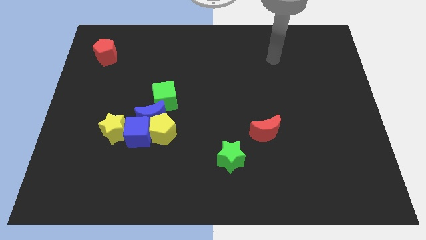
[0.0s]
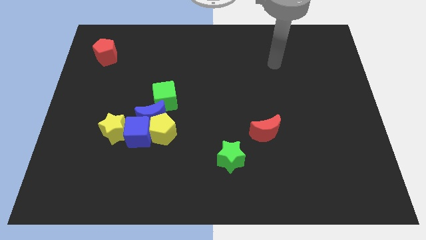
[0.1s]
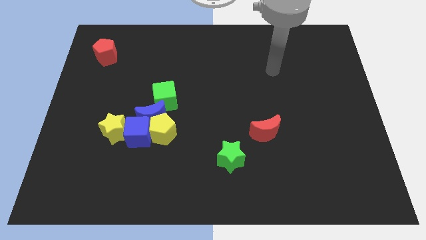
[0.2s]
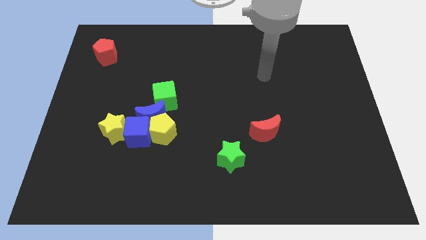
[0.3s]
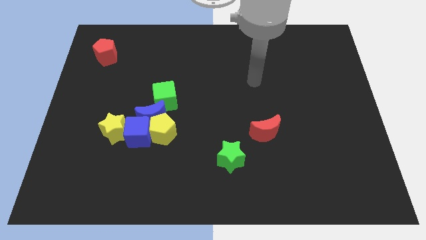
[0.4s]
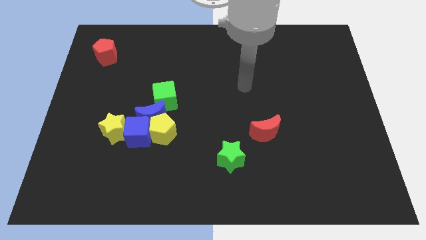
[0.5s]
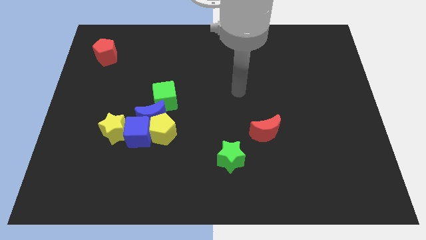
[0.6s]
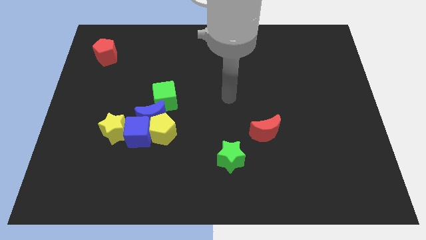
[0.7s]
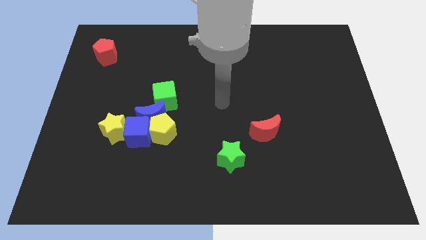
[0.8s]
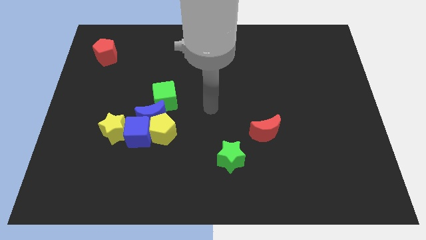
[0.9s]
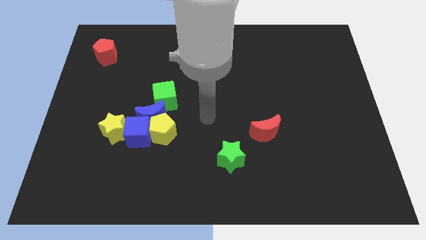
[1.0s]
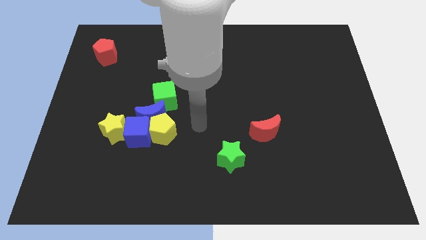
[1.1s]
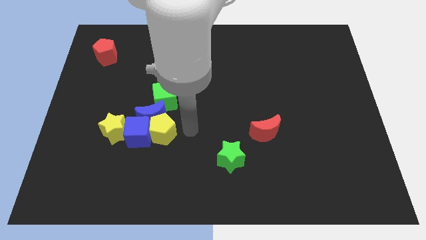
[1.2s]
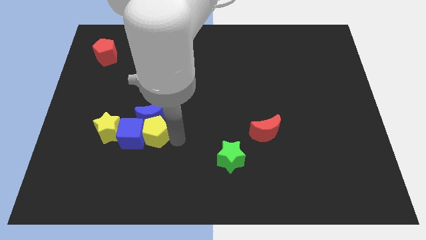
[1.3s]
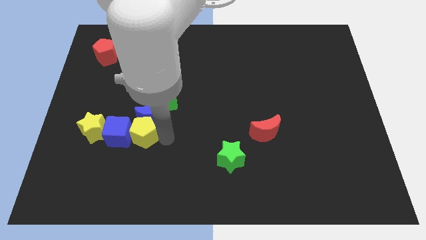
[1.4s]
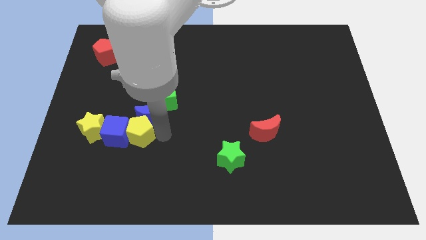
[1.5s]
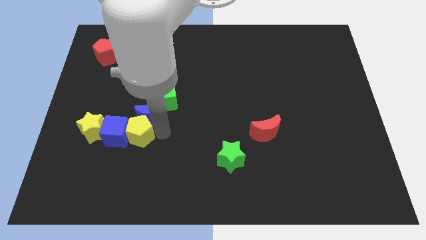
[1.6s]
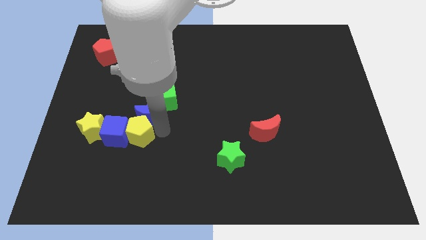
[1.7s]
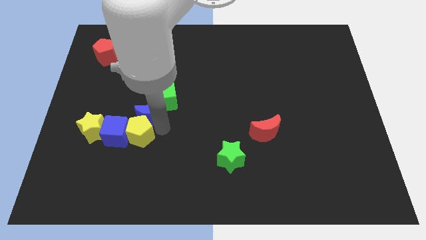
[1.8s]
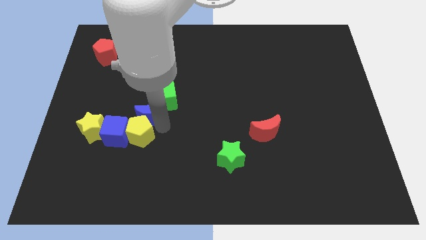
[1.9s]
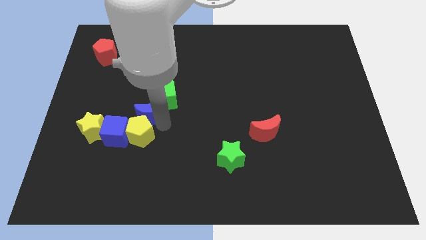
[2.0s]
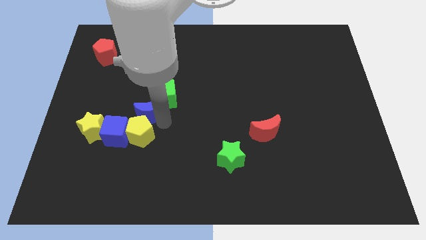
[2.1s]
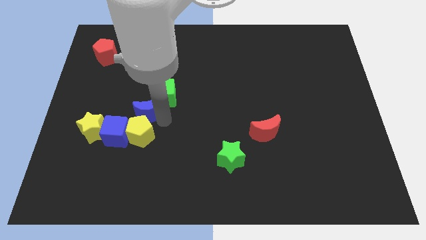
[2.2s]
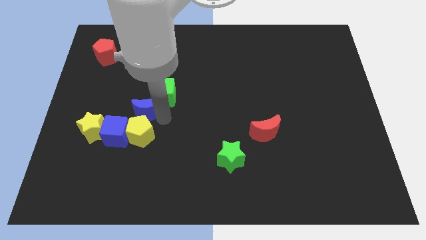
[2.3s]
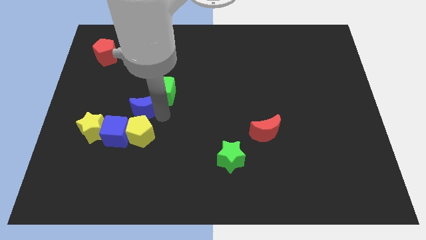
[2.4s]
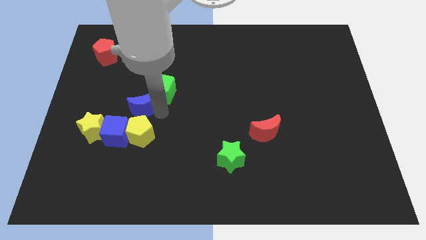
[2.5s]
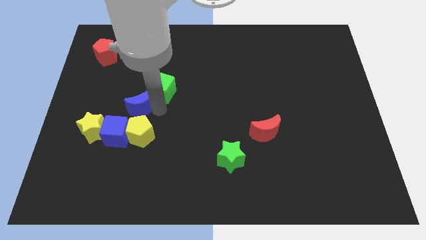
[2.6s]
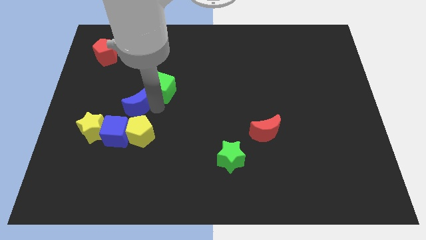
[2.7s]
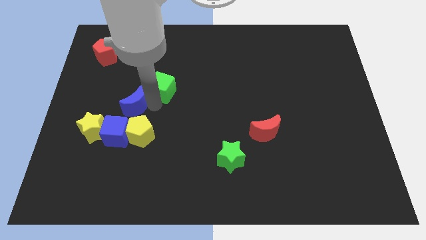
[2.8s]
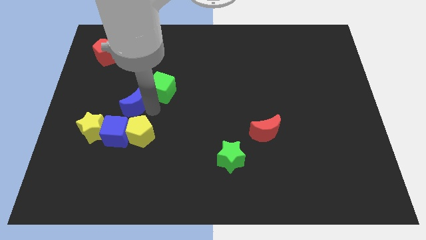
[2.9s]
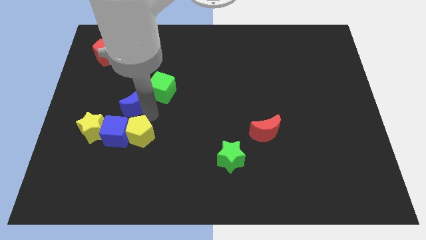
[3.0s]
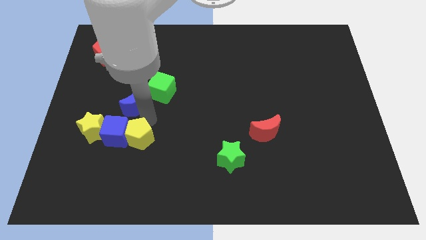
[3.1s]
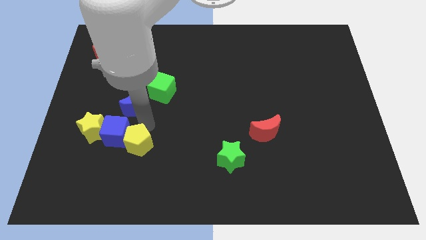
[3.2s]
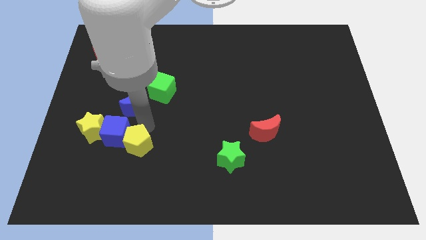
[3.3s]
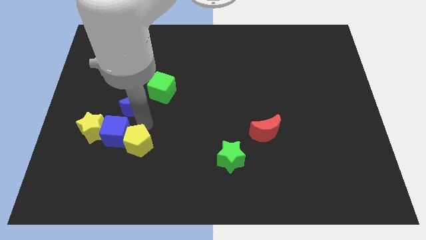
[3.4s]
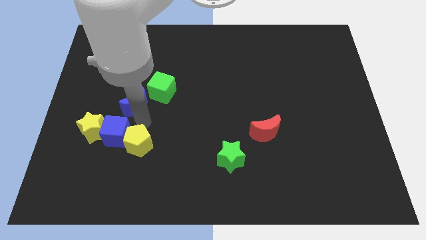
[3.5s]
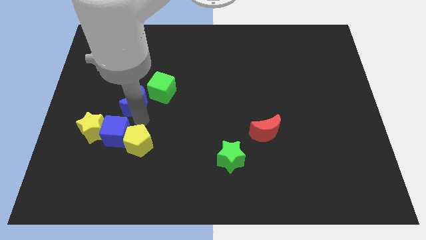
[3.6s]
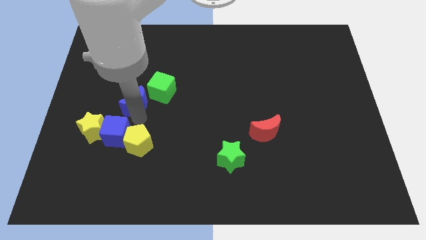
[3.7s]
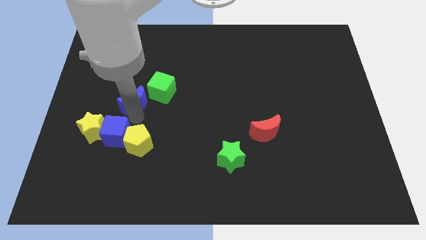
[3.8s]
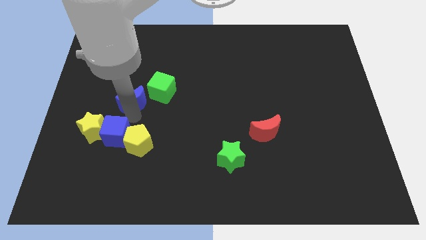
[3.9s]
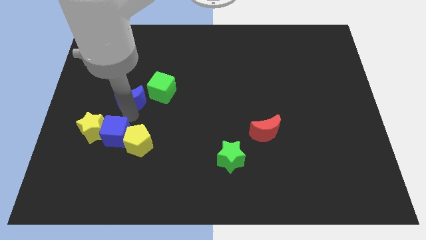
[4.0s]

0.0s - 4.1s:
slide the blue moon diagonally upwards and left a bit

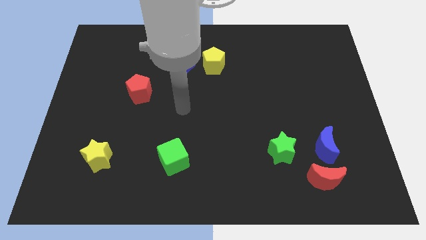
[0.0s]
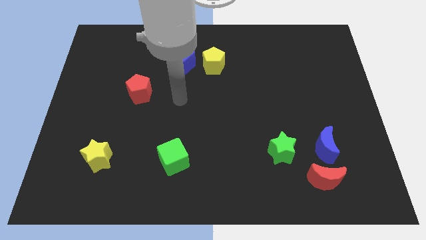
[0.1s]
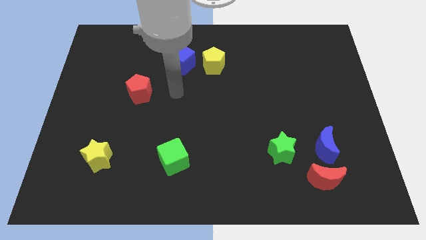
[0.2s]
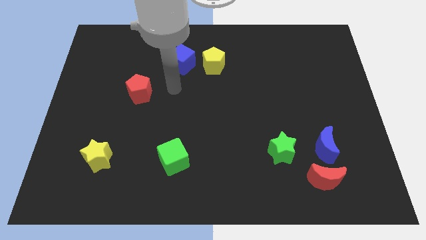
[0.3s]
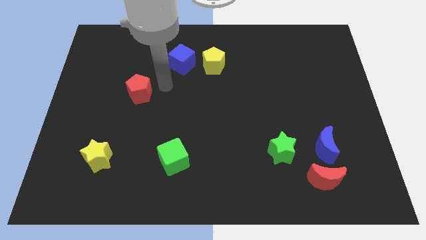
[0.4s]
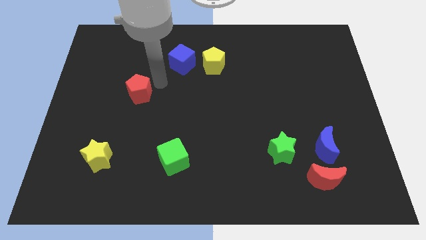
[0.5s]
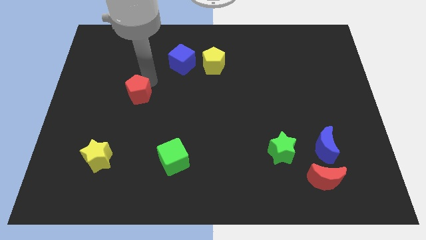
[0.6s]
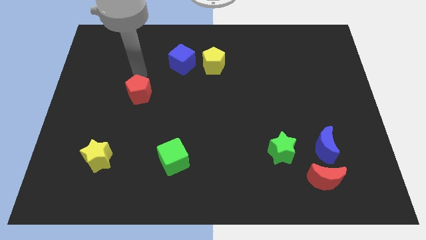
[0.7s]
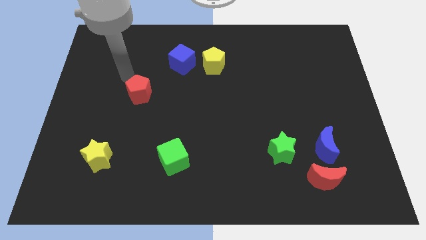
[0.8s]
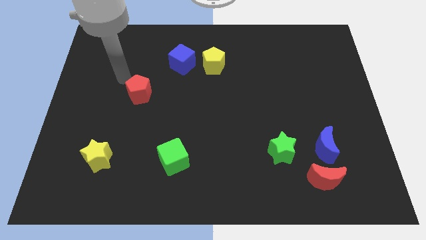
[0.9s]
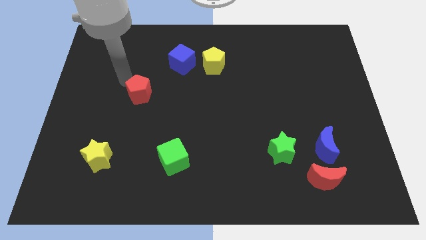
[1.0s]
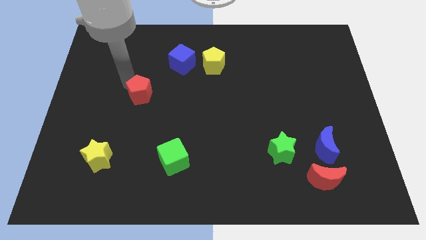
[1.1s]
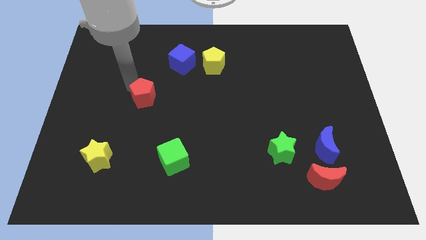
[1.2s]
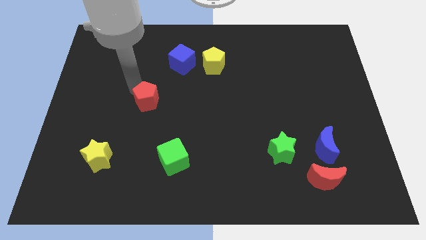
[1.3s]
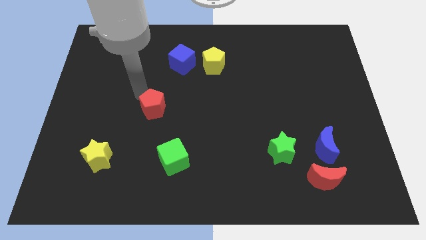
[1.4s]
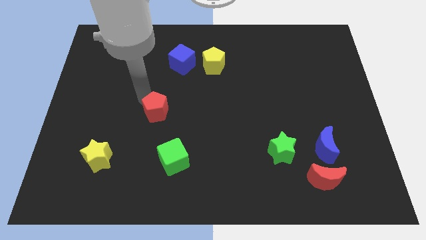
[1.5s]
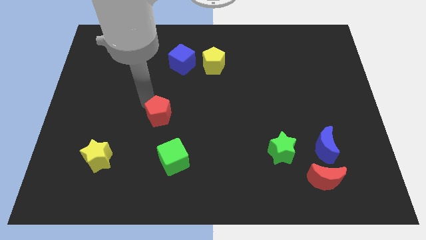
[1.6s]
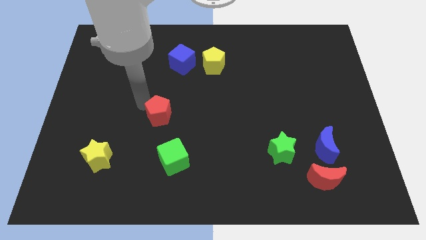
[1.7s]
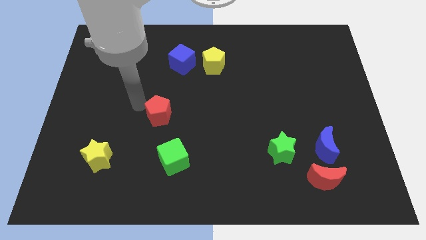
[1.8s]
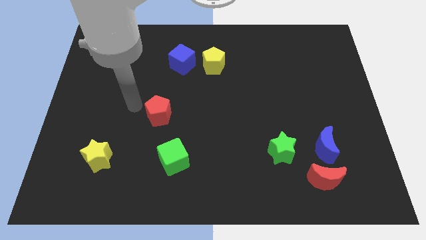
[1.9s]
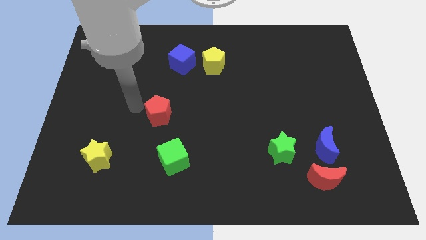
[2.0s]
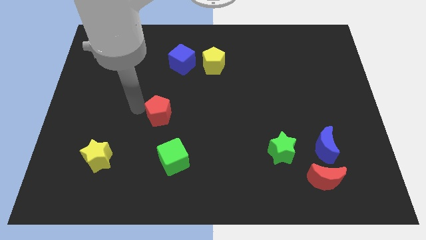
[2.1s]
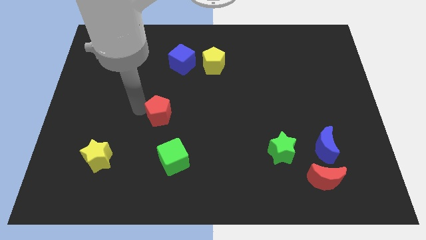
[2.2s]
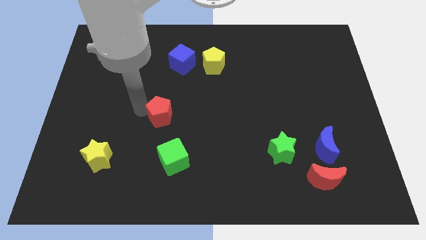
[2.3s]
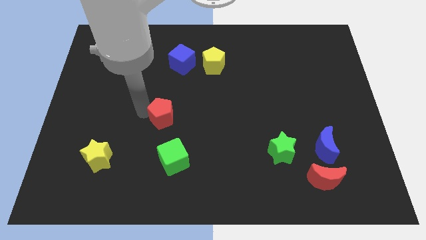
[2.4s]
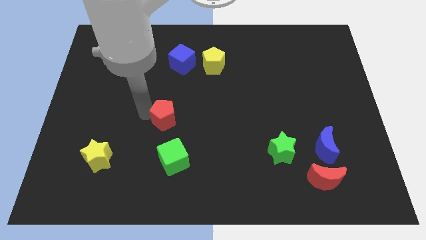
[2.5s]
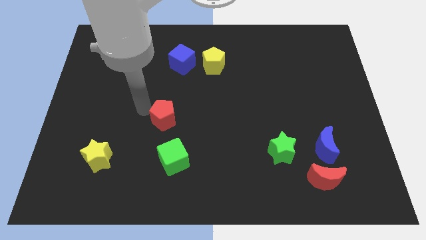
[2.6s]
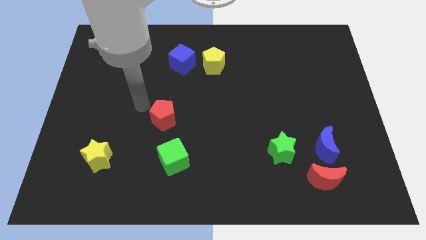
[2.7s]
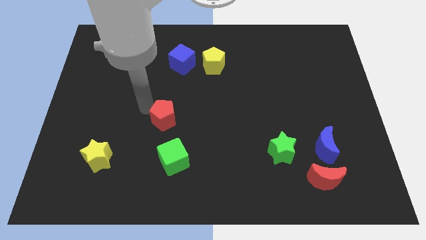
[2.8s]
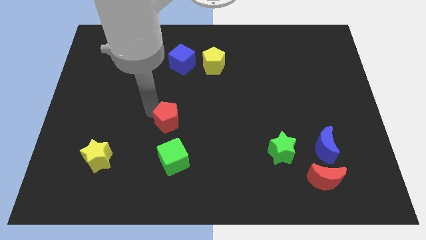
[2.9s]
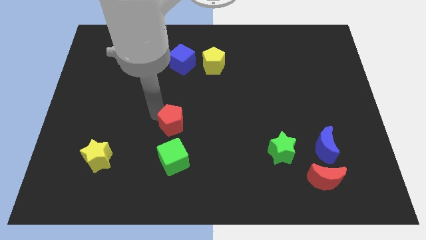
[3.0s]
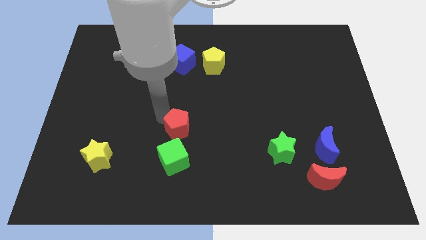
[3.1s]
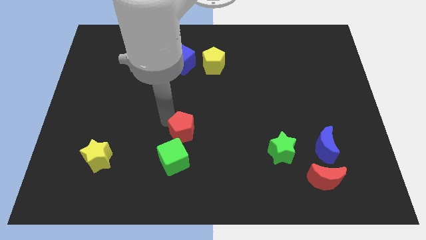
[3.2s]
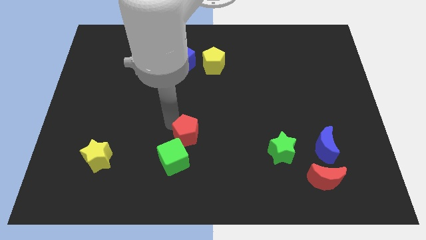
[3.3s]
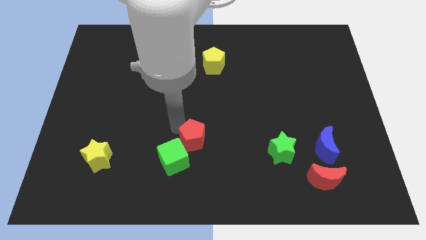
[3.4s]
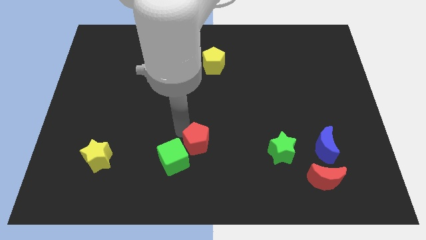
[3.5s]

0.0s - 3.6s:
move the red pentagon downwards and right

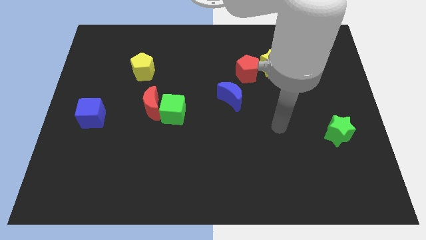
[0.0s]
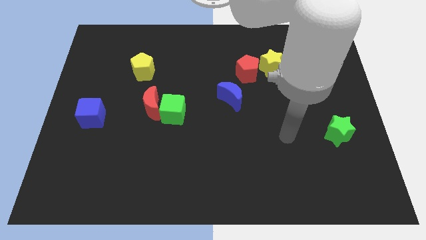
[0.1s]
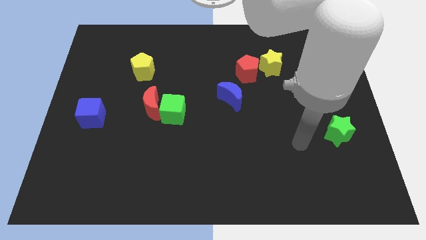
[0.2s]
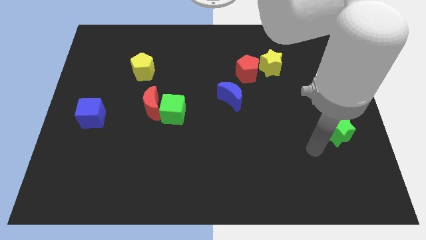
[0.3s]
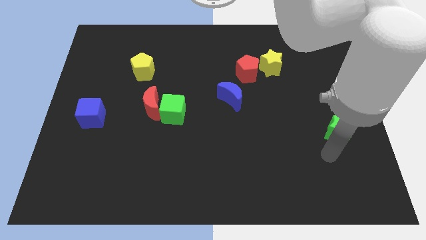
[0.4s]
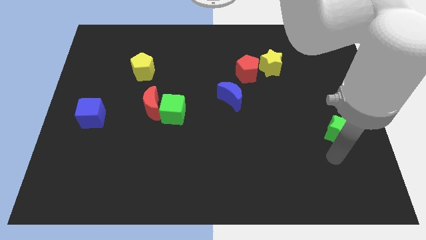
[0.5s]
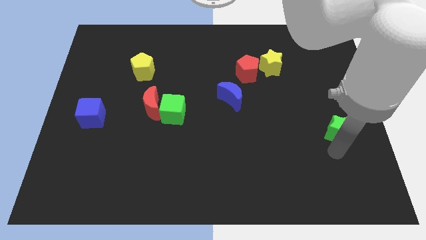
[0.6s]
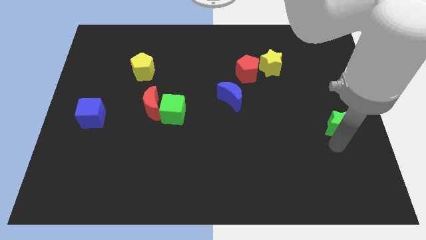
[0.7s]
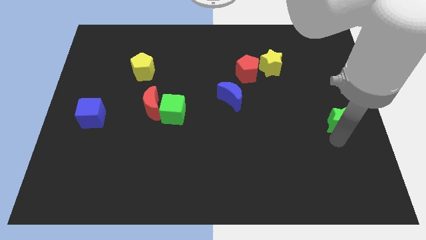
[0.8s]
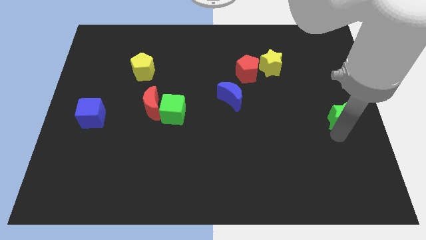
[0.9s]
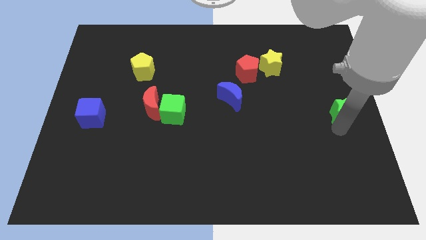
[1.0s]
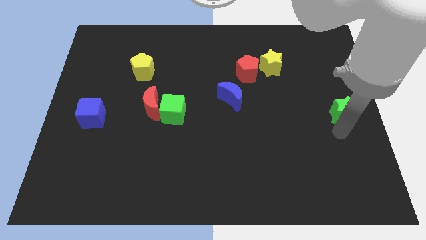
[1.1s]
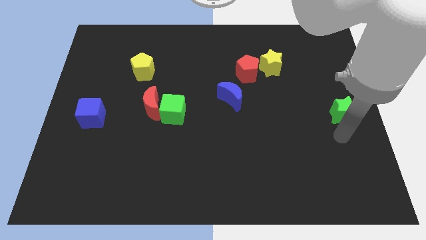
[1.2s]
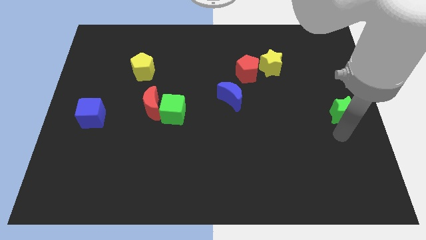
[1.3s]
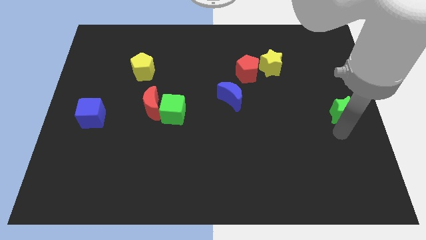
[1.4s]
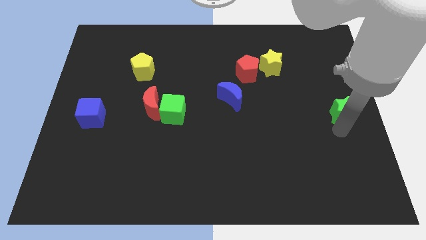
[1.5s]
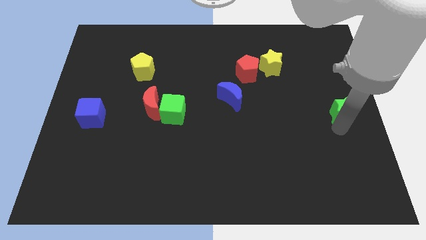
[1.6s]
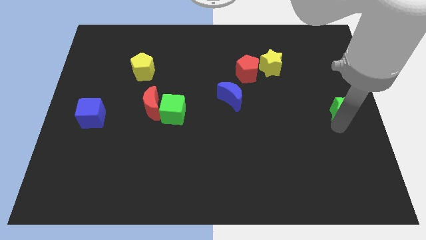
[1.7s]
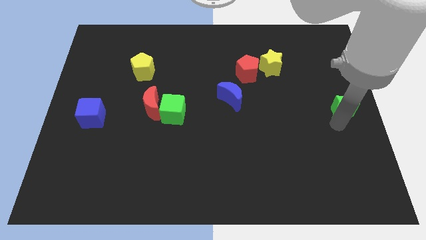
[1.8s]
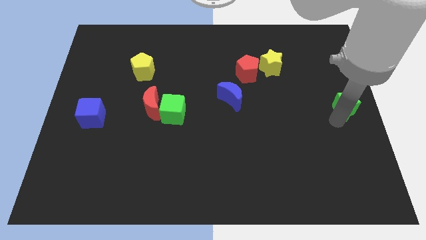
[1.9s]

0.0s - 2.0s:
slightly slide the green star up
